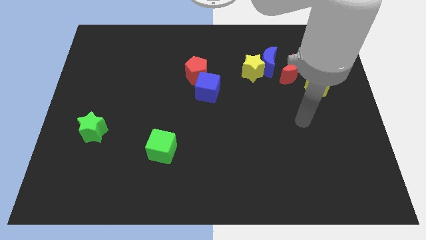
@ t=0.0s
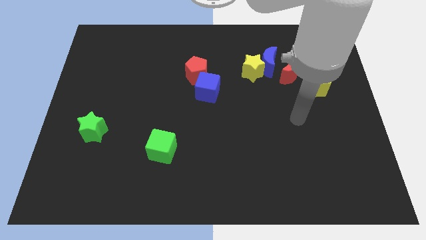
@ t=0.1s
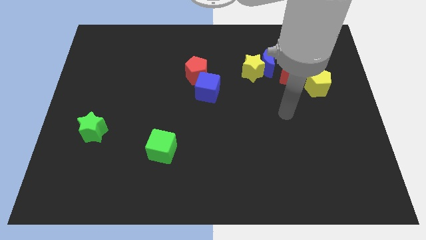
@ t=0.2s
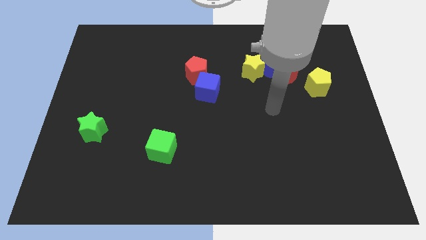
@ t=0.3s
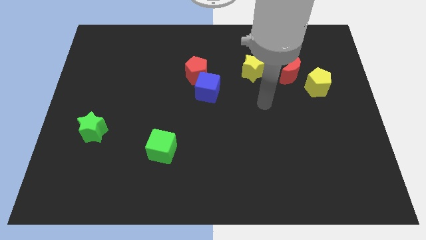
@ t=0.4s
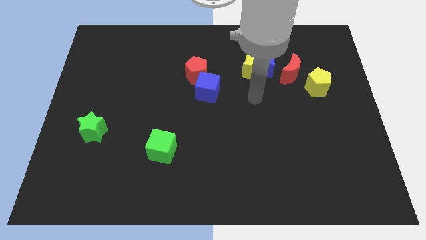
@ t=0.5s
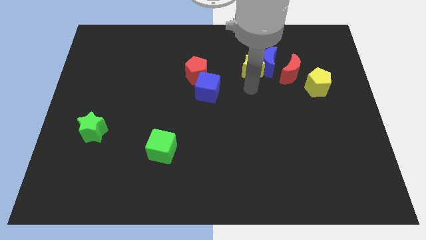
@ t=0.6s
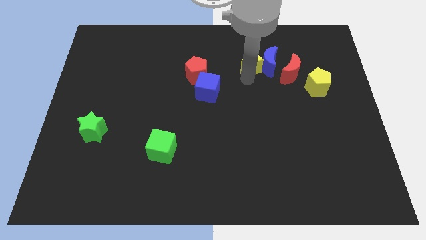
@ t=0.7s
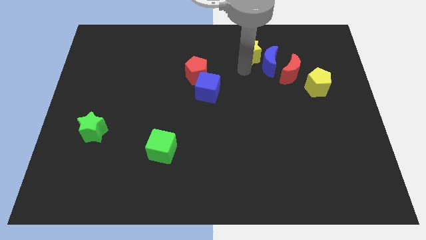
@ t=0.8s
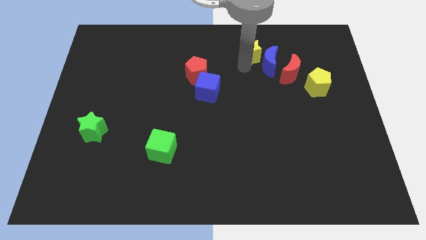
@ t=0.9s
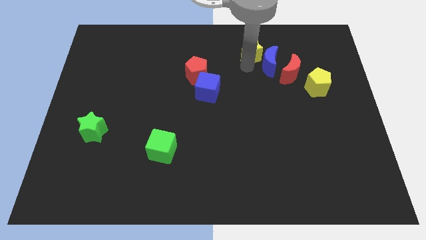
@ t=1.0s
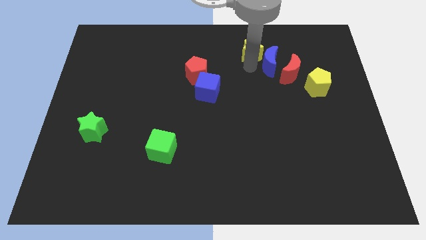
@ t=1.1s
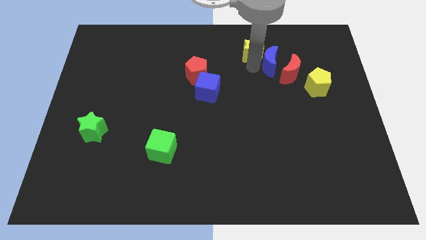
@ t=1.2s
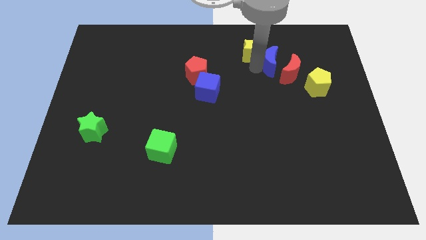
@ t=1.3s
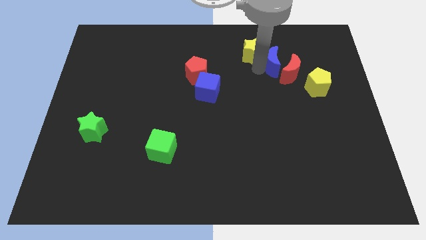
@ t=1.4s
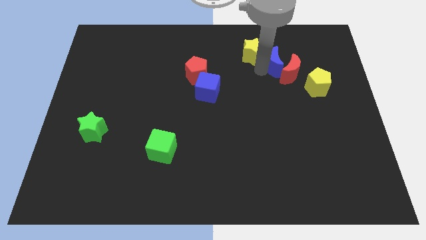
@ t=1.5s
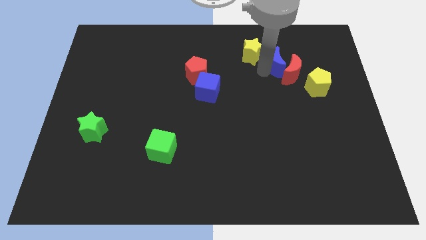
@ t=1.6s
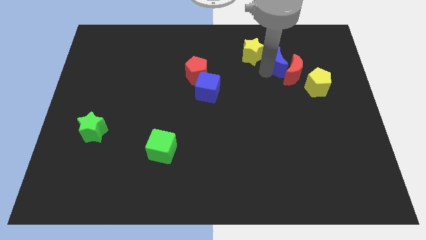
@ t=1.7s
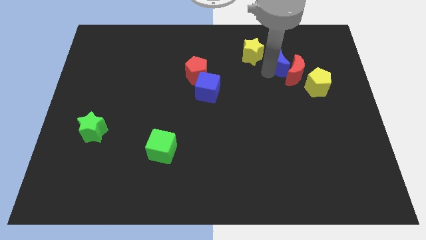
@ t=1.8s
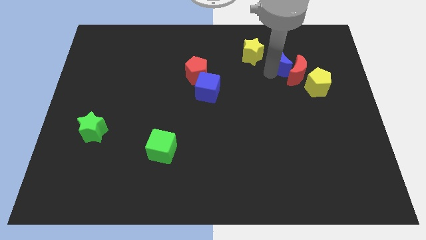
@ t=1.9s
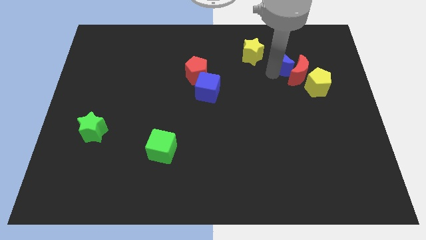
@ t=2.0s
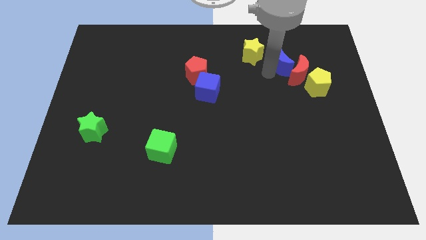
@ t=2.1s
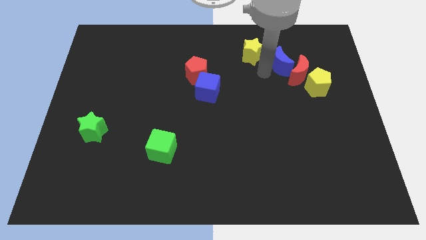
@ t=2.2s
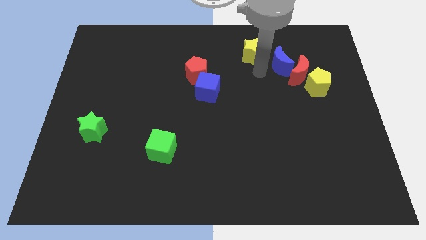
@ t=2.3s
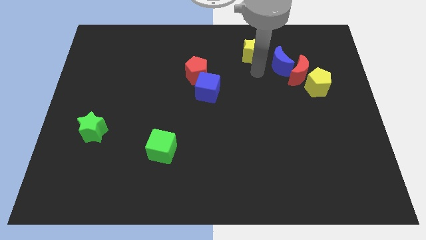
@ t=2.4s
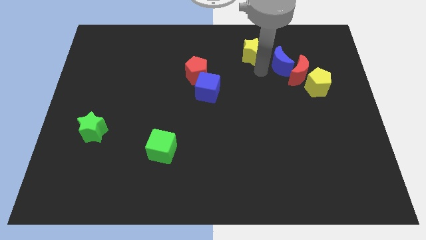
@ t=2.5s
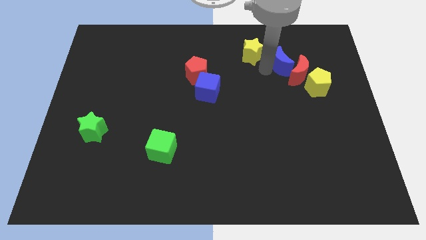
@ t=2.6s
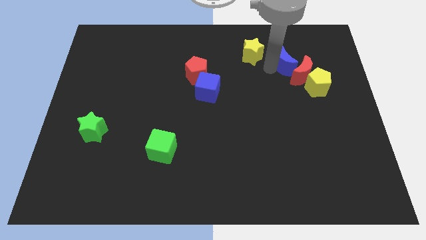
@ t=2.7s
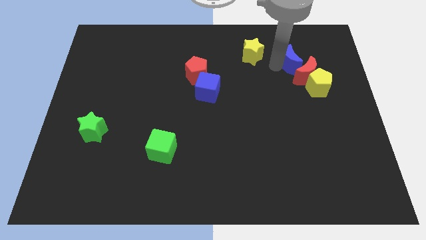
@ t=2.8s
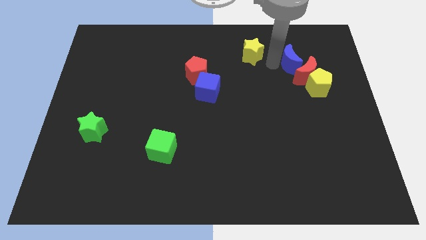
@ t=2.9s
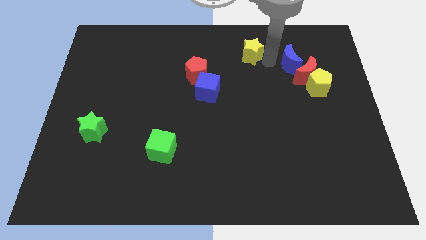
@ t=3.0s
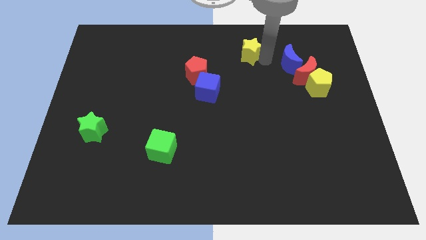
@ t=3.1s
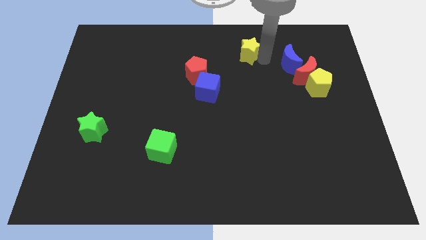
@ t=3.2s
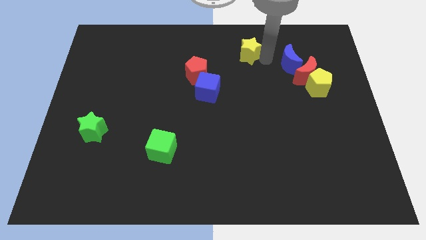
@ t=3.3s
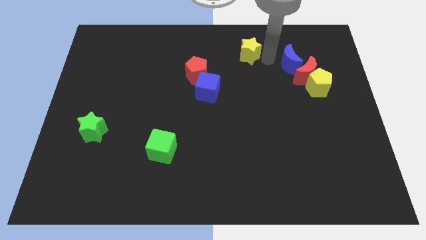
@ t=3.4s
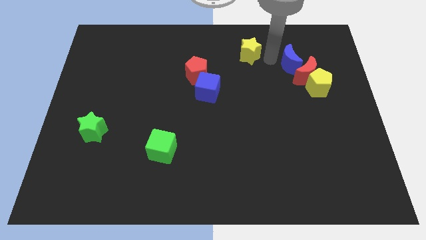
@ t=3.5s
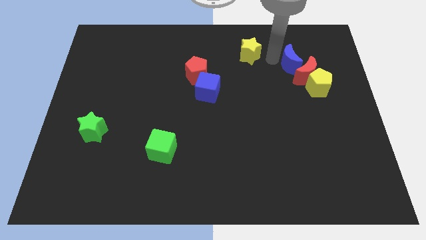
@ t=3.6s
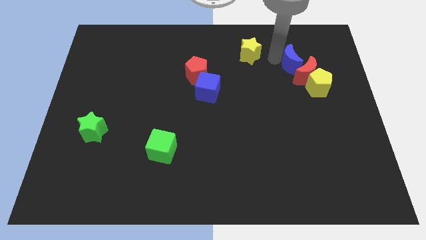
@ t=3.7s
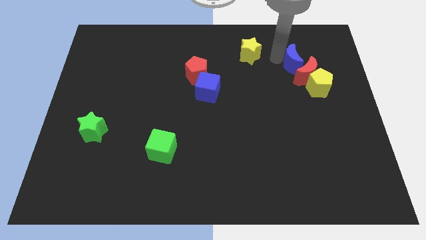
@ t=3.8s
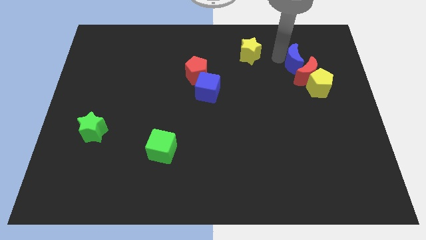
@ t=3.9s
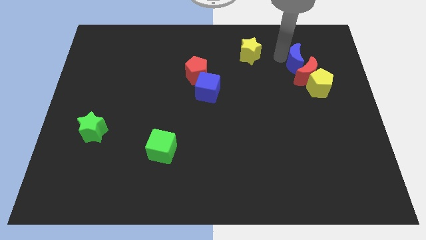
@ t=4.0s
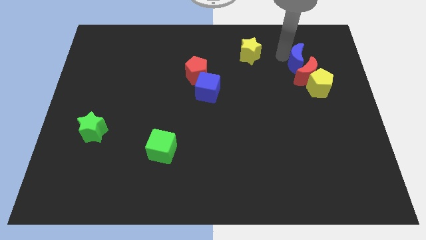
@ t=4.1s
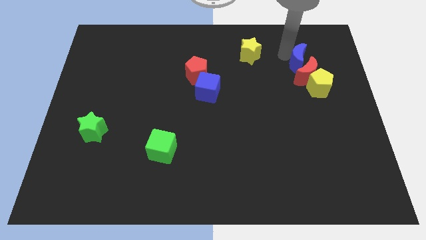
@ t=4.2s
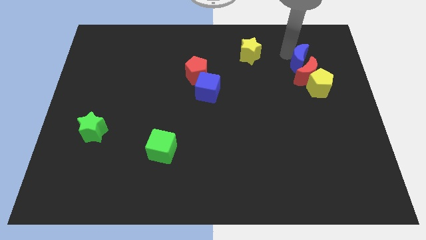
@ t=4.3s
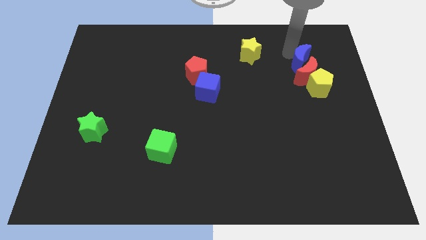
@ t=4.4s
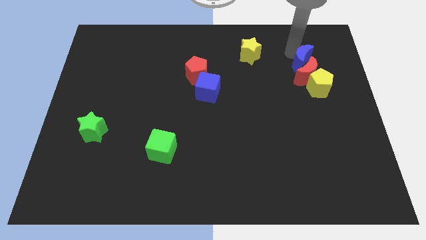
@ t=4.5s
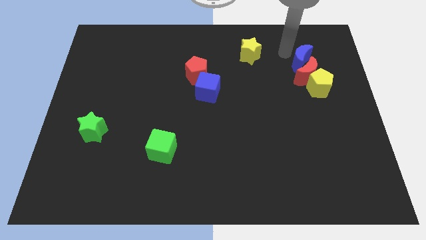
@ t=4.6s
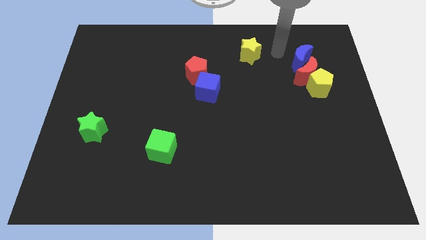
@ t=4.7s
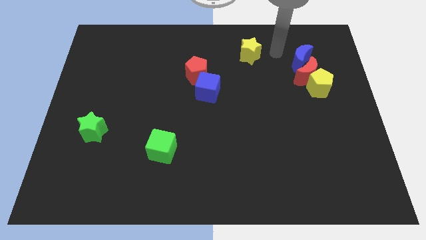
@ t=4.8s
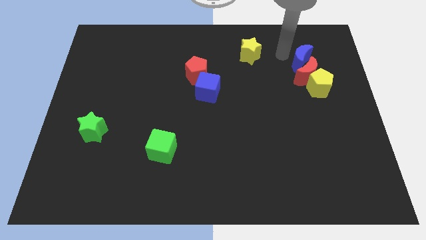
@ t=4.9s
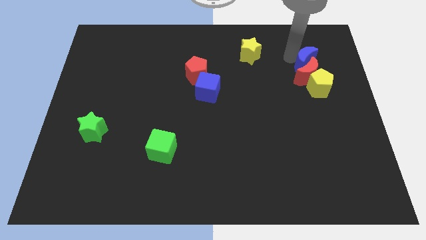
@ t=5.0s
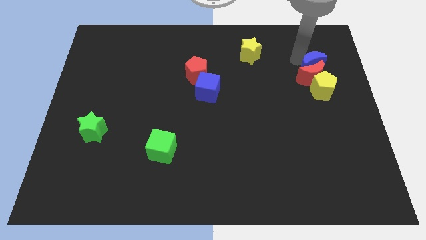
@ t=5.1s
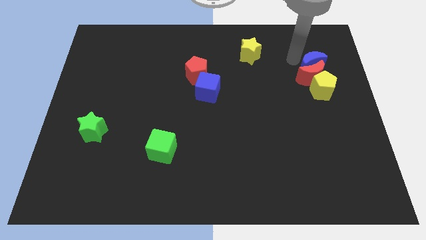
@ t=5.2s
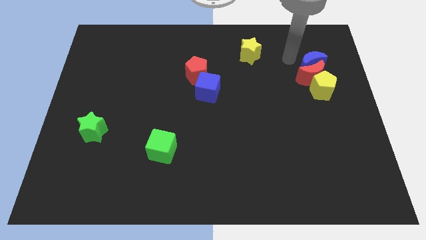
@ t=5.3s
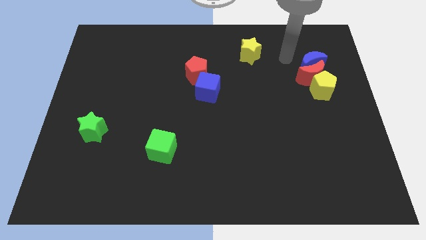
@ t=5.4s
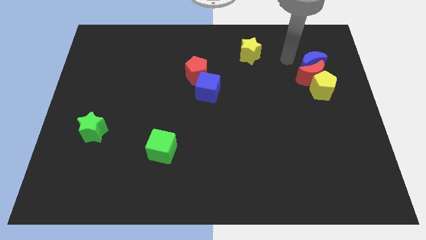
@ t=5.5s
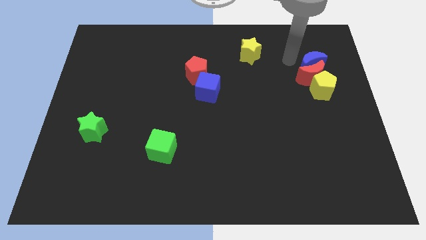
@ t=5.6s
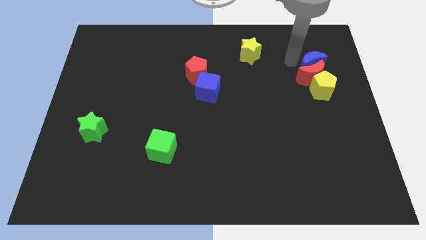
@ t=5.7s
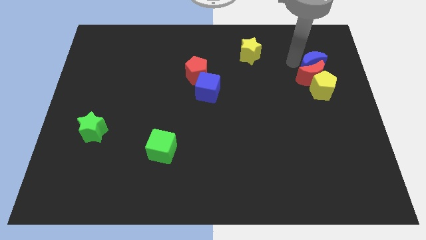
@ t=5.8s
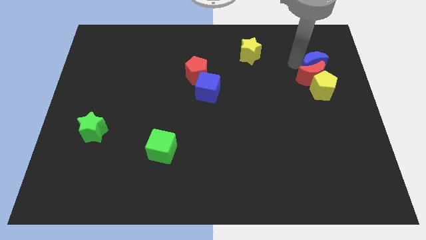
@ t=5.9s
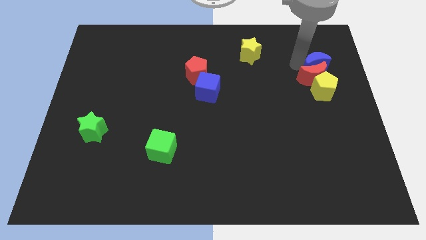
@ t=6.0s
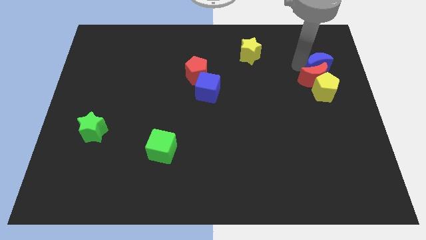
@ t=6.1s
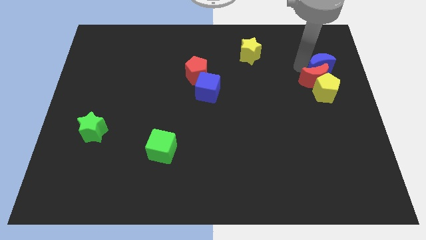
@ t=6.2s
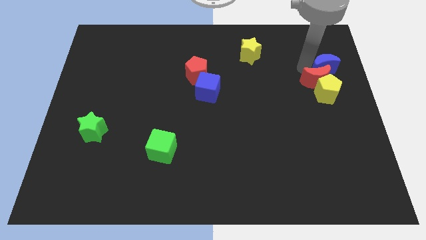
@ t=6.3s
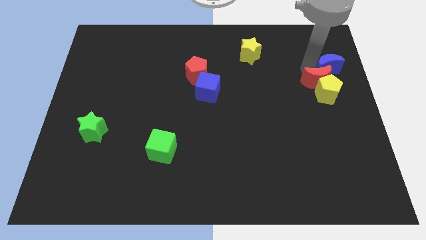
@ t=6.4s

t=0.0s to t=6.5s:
put the blue moon to the right side
